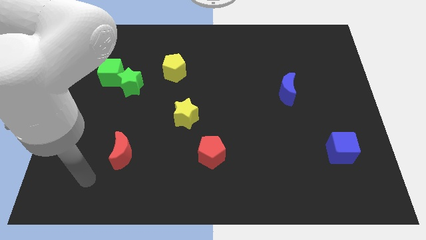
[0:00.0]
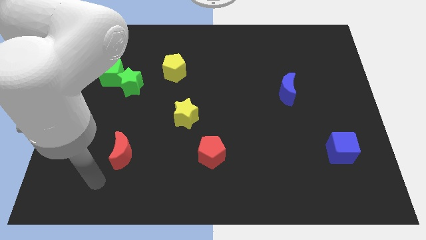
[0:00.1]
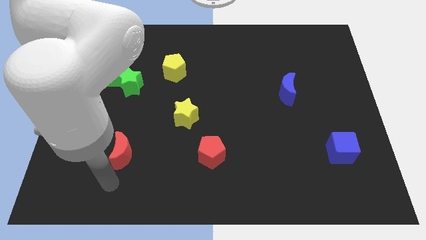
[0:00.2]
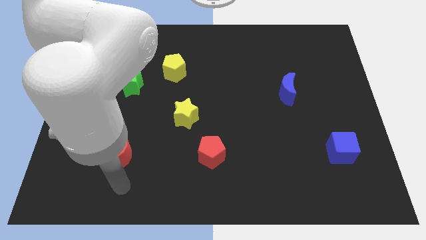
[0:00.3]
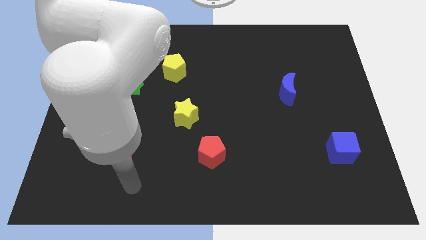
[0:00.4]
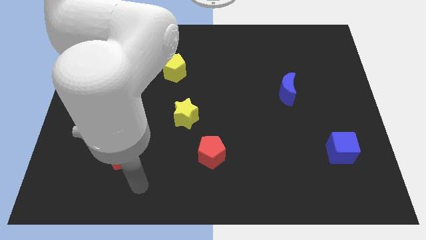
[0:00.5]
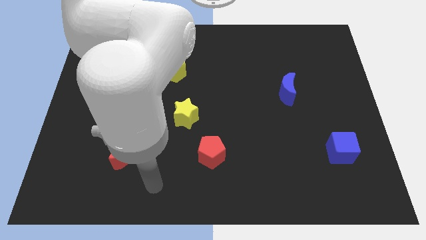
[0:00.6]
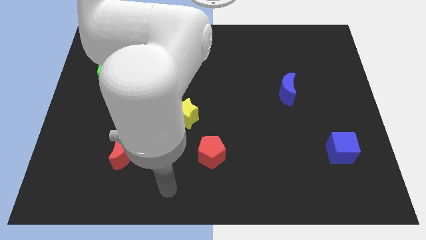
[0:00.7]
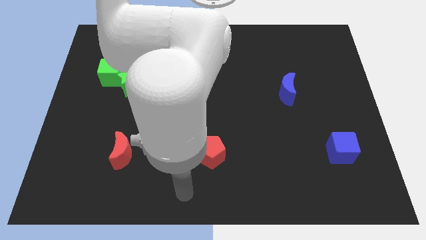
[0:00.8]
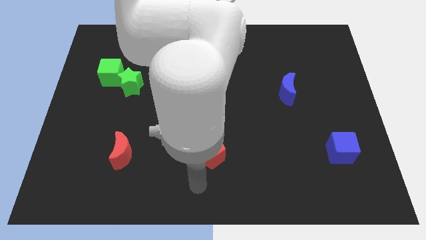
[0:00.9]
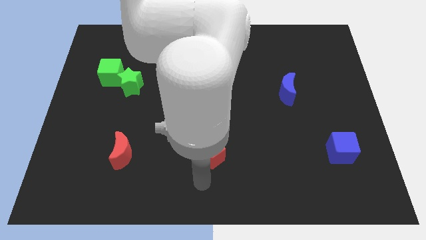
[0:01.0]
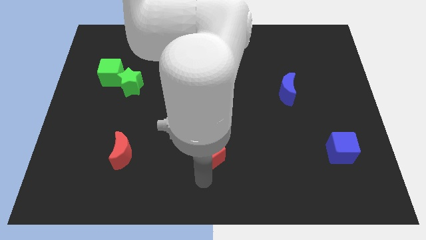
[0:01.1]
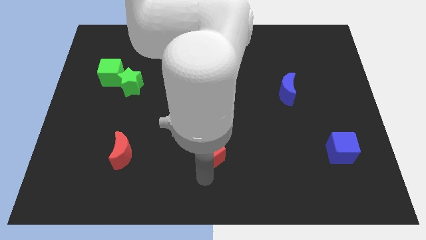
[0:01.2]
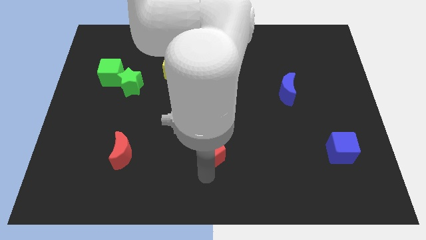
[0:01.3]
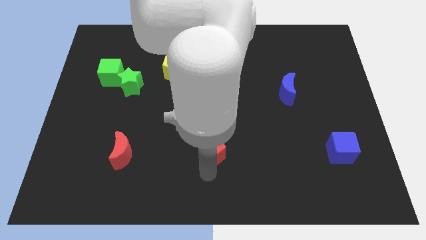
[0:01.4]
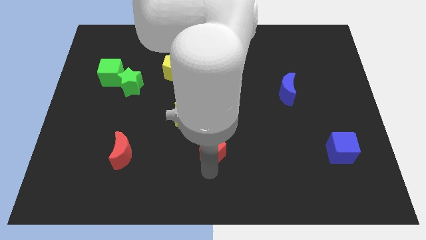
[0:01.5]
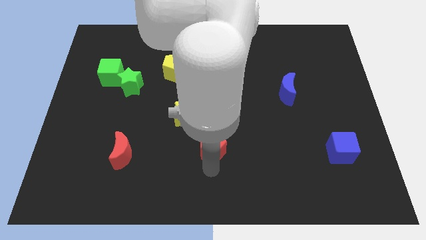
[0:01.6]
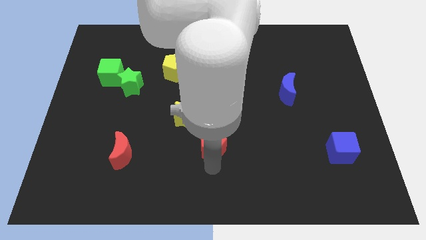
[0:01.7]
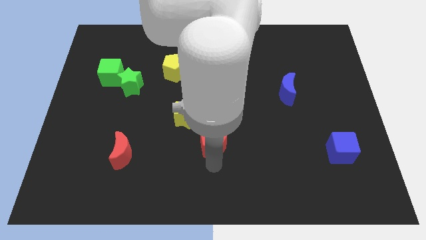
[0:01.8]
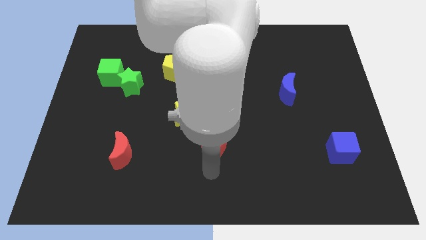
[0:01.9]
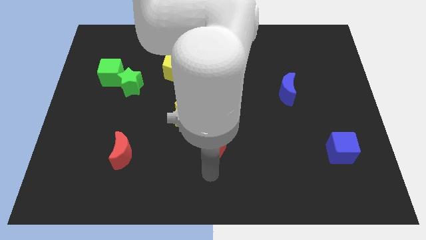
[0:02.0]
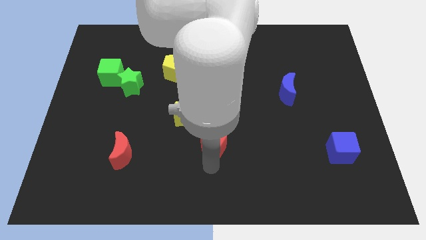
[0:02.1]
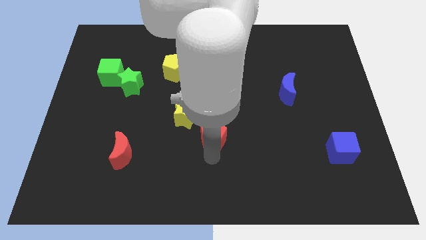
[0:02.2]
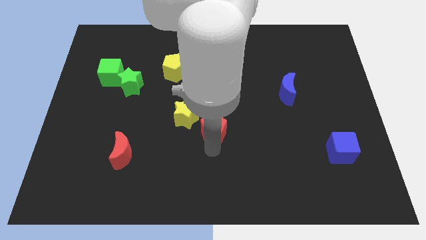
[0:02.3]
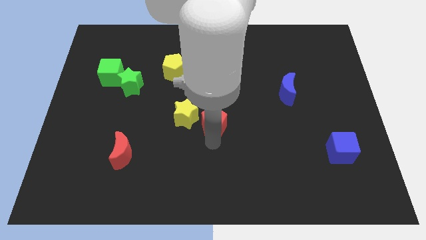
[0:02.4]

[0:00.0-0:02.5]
slide the red pentagon up a little

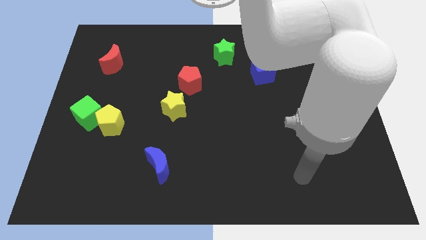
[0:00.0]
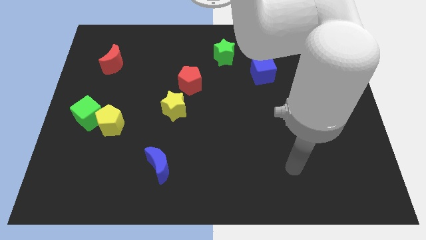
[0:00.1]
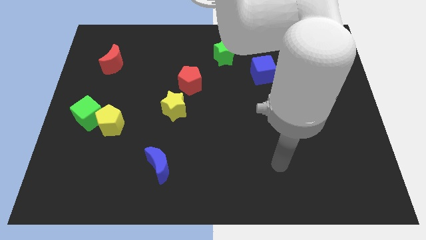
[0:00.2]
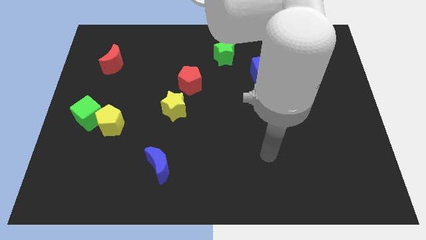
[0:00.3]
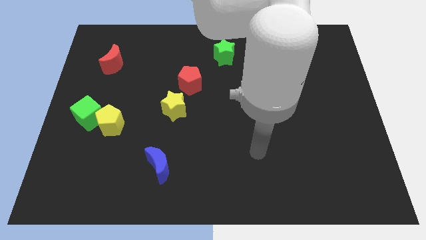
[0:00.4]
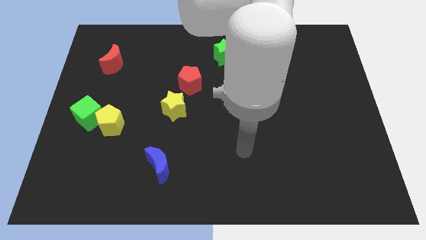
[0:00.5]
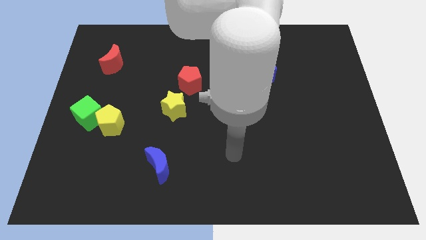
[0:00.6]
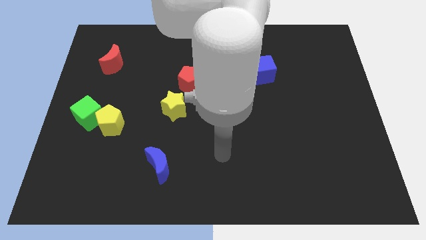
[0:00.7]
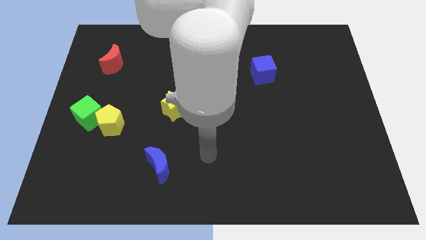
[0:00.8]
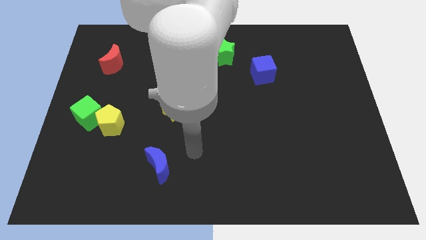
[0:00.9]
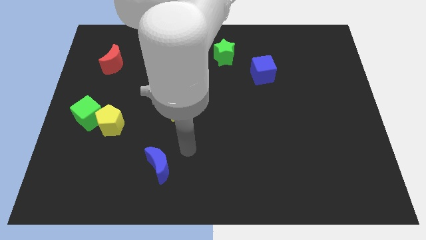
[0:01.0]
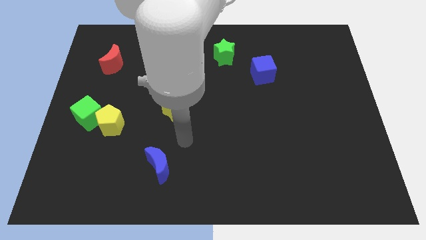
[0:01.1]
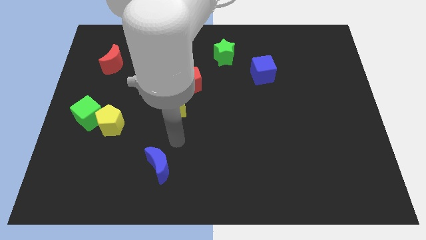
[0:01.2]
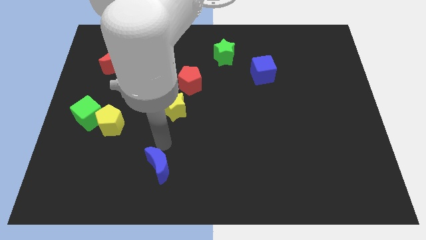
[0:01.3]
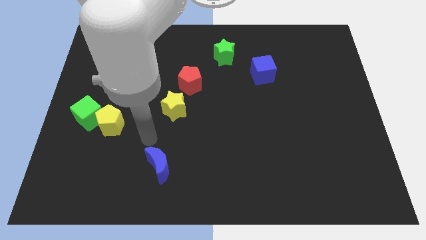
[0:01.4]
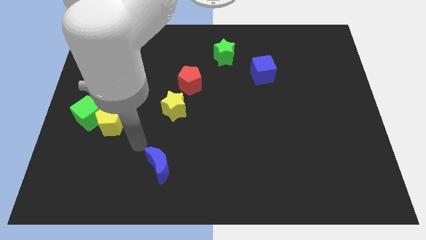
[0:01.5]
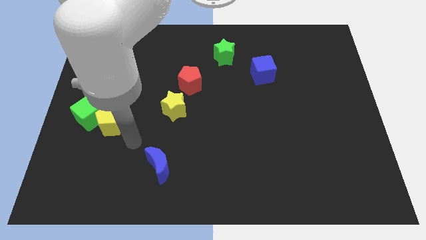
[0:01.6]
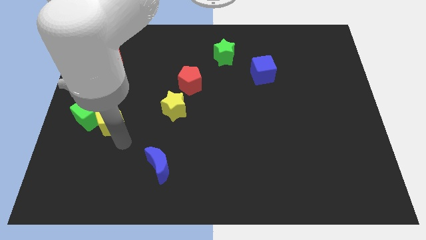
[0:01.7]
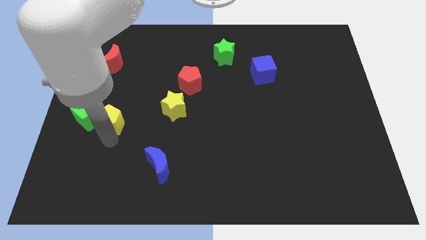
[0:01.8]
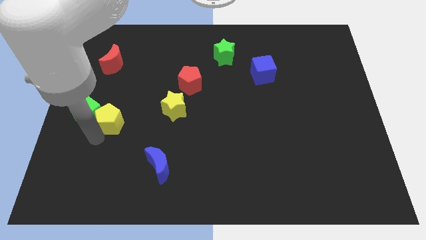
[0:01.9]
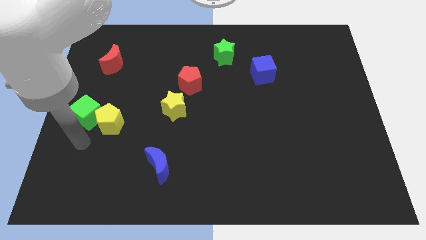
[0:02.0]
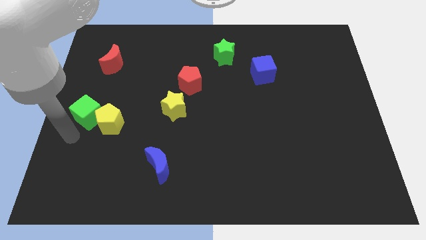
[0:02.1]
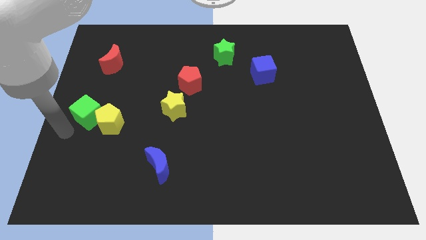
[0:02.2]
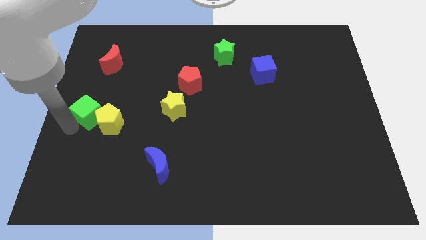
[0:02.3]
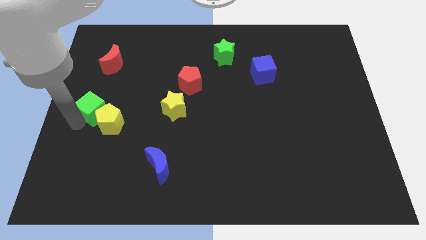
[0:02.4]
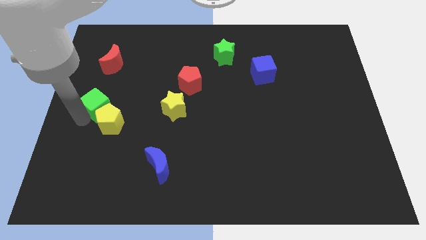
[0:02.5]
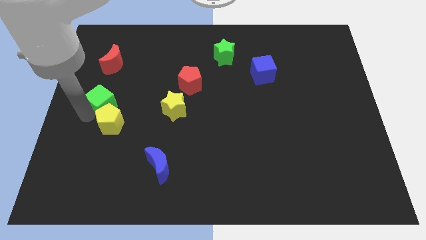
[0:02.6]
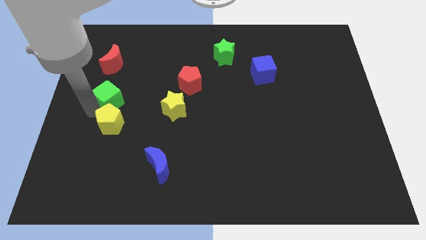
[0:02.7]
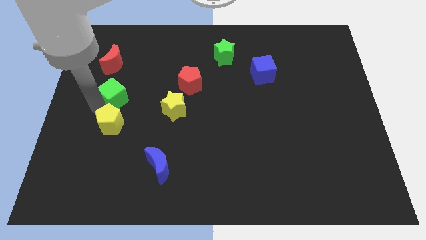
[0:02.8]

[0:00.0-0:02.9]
slightly push the green cube upwards and then to the right

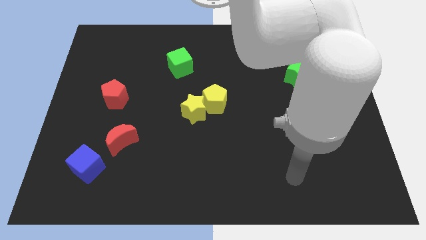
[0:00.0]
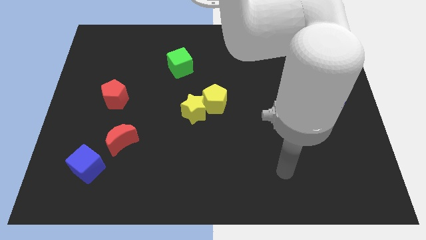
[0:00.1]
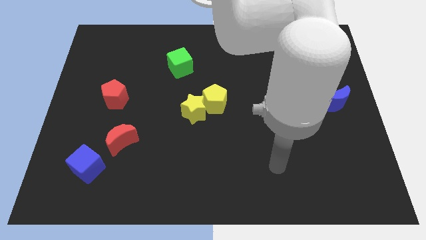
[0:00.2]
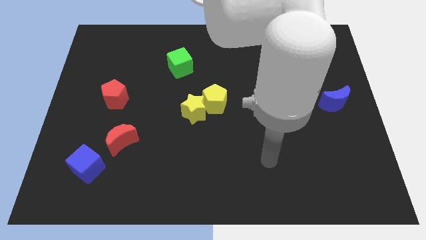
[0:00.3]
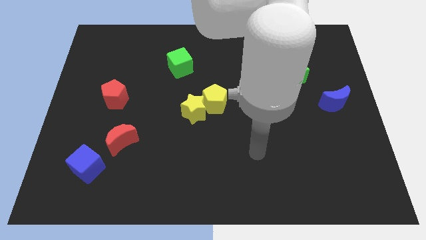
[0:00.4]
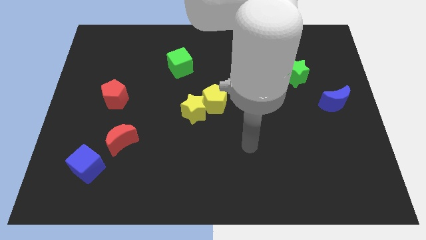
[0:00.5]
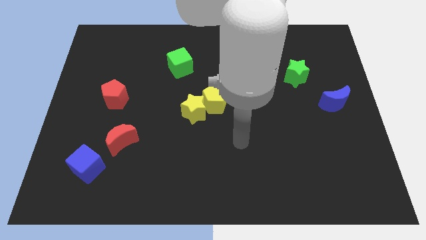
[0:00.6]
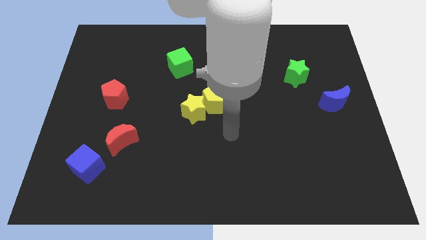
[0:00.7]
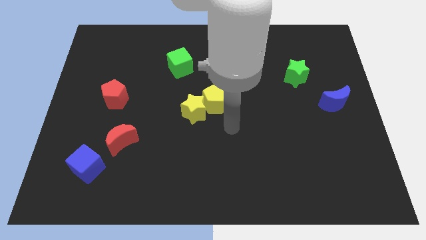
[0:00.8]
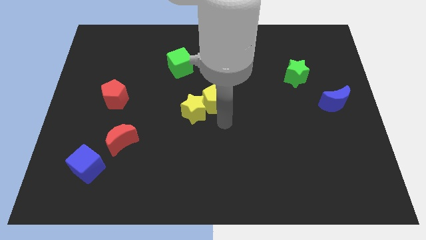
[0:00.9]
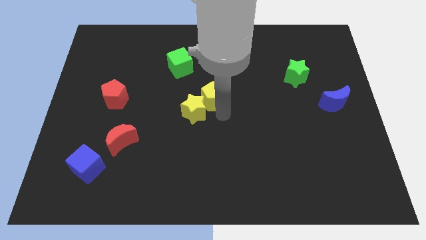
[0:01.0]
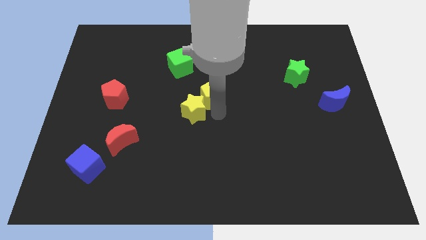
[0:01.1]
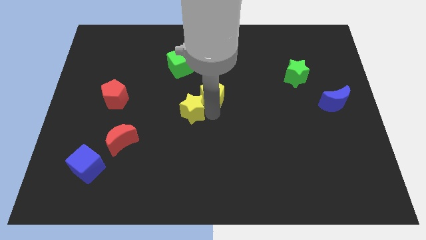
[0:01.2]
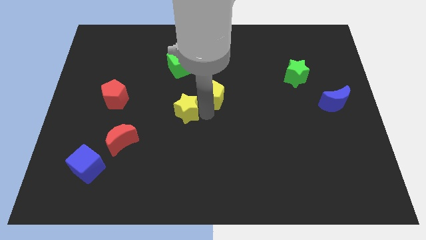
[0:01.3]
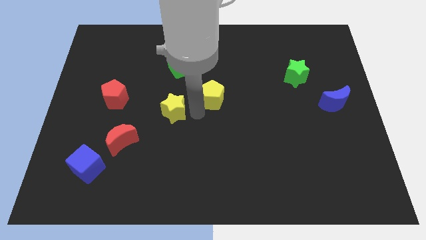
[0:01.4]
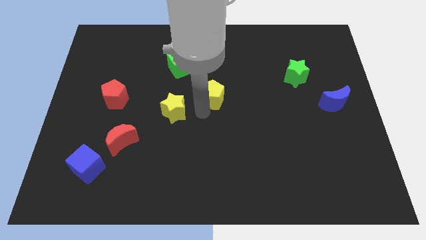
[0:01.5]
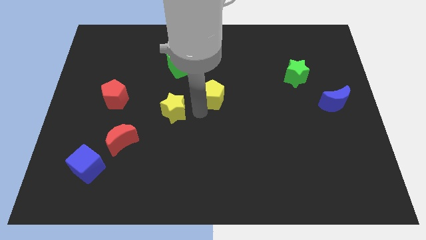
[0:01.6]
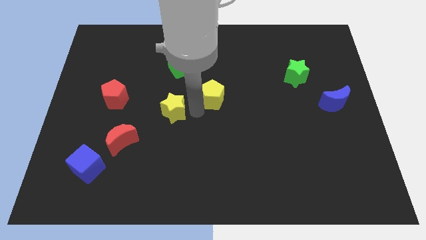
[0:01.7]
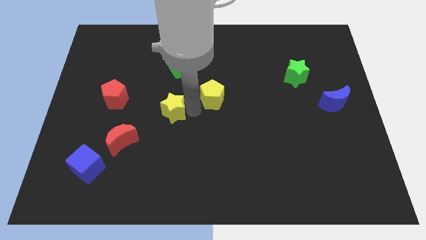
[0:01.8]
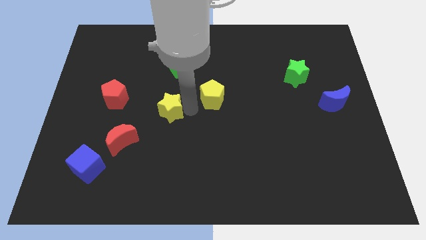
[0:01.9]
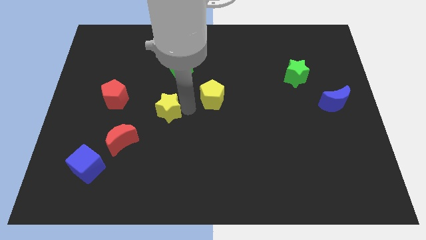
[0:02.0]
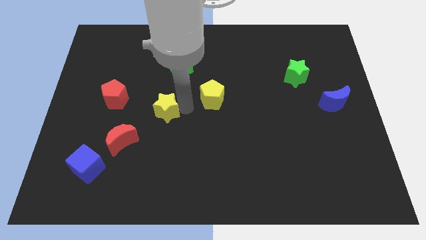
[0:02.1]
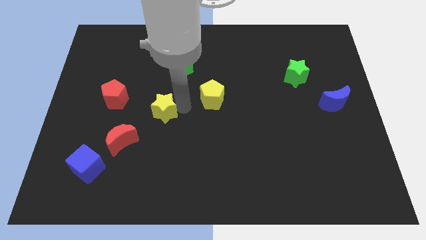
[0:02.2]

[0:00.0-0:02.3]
push the yellow star somewhat left

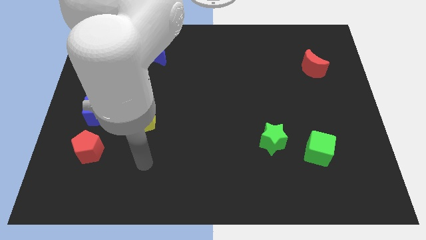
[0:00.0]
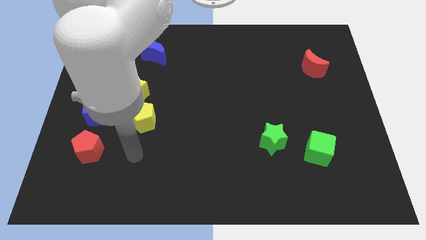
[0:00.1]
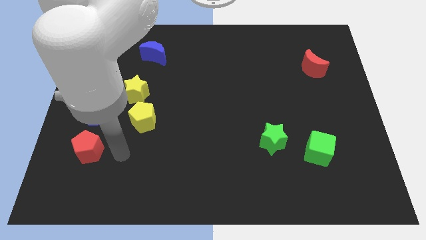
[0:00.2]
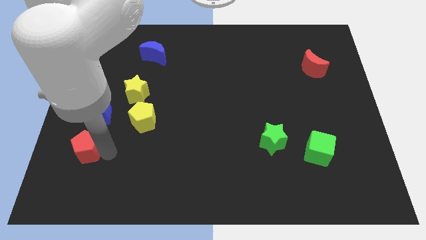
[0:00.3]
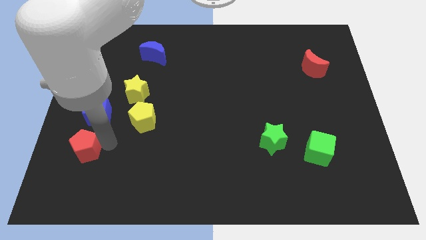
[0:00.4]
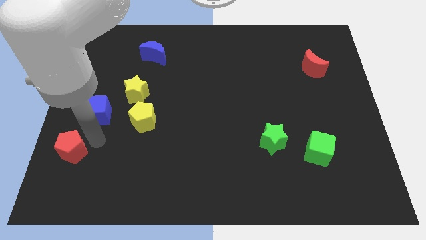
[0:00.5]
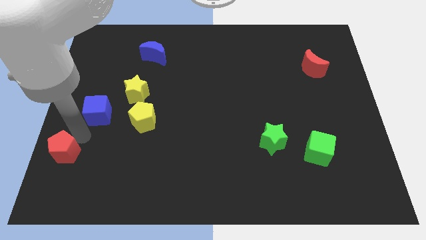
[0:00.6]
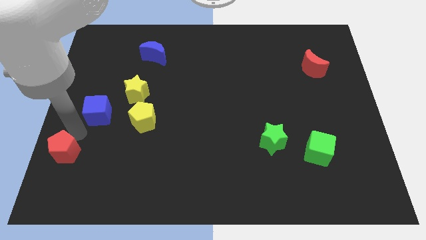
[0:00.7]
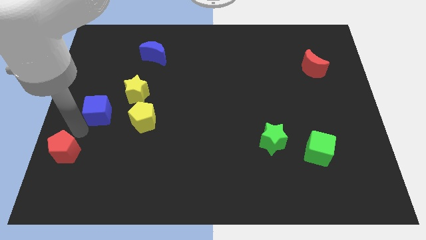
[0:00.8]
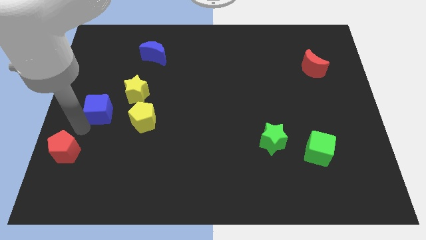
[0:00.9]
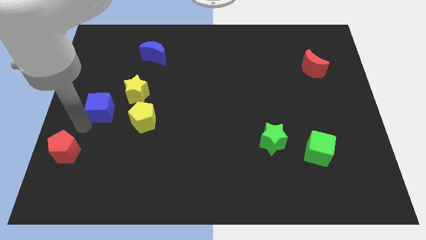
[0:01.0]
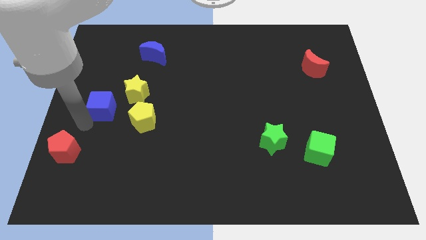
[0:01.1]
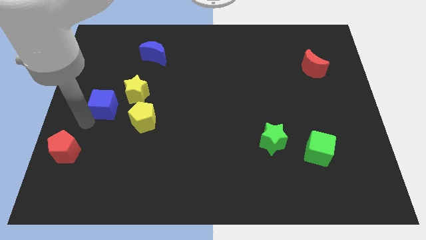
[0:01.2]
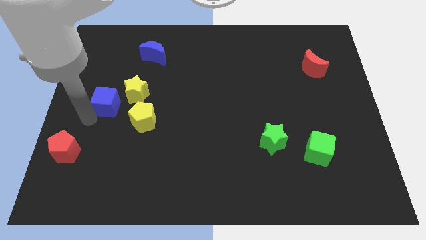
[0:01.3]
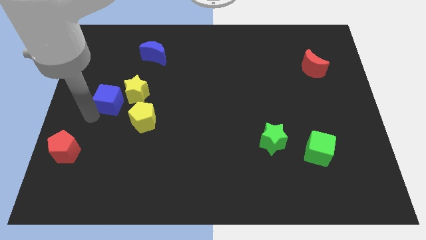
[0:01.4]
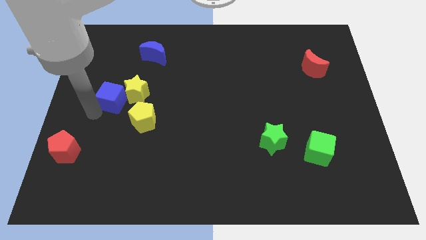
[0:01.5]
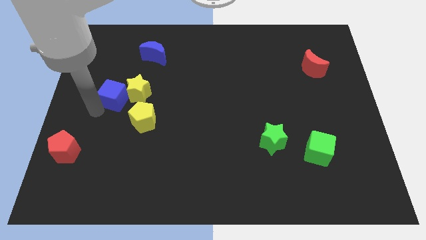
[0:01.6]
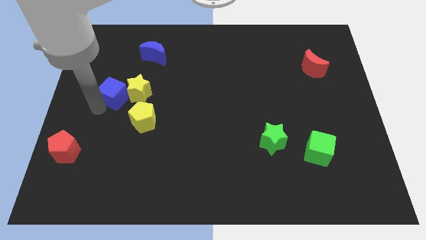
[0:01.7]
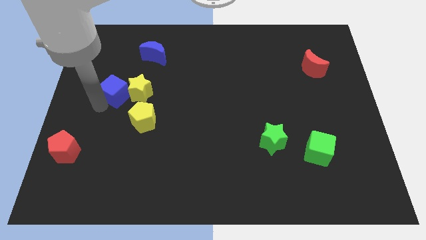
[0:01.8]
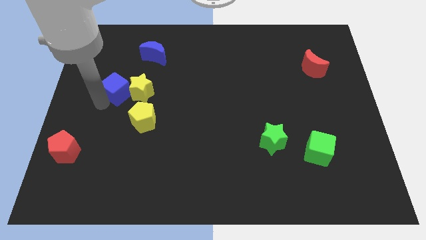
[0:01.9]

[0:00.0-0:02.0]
slightly push the blue cube diagonally upwards and to the right
